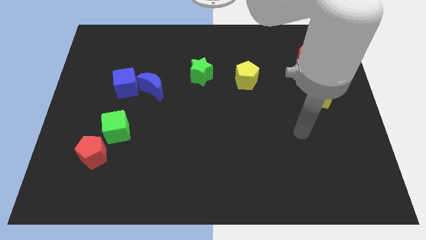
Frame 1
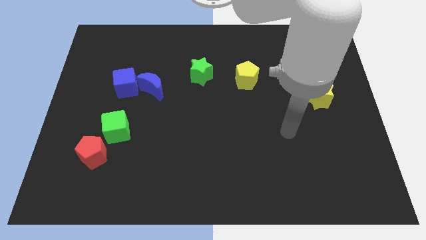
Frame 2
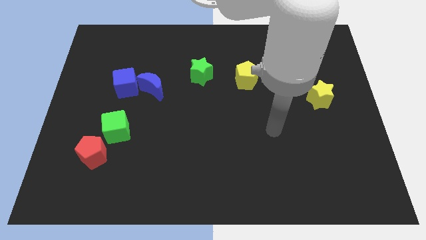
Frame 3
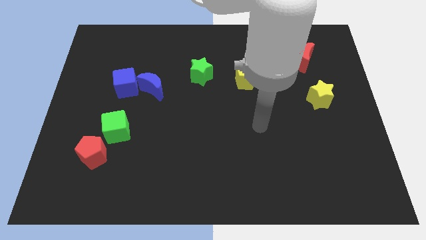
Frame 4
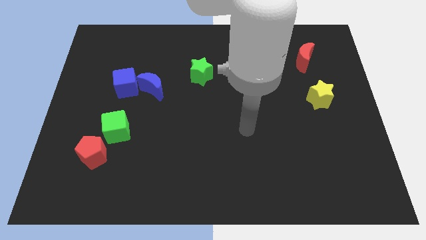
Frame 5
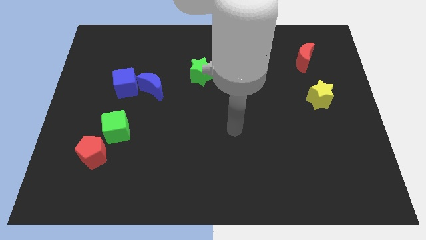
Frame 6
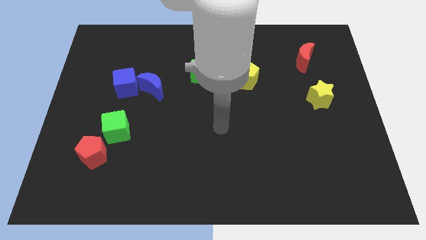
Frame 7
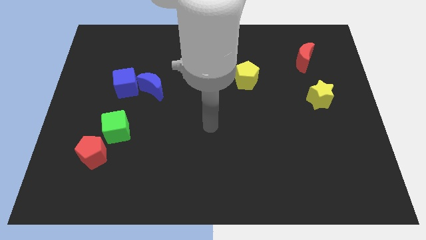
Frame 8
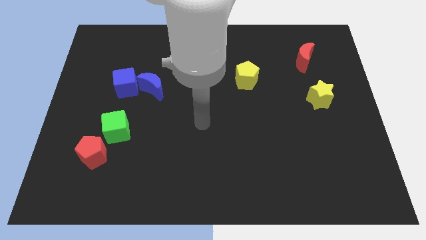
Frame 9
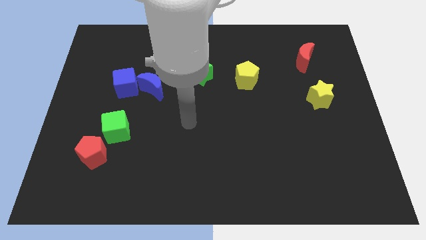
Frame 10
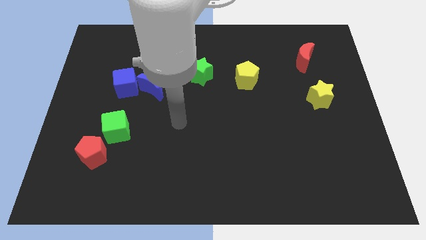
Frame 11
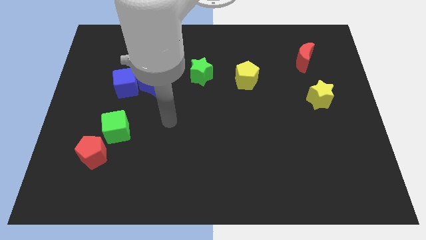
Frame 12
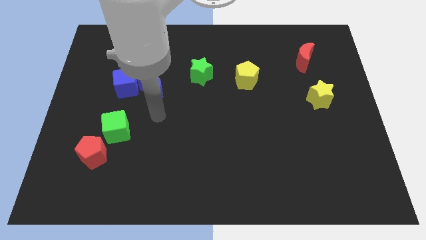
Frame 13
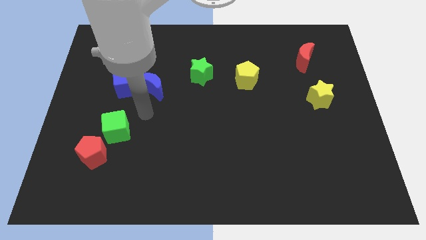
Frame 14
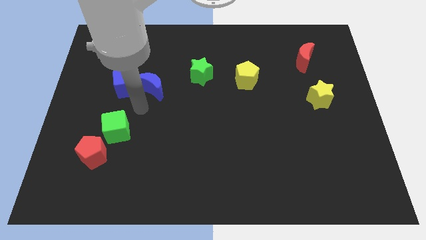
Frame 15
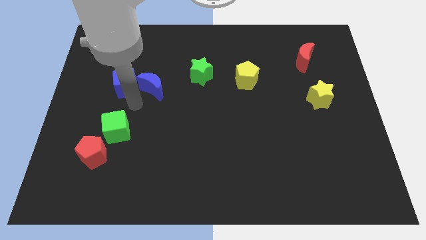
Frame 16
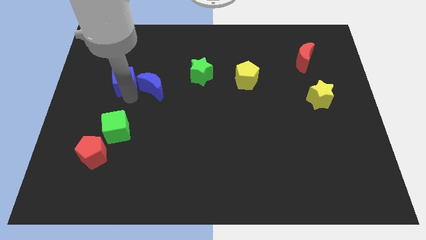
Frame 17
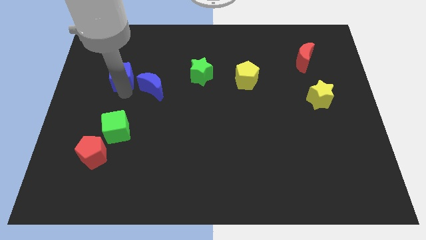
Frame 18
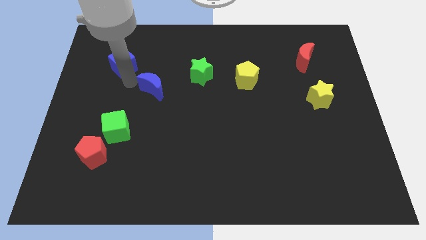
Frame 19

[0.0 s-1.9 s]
pull the blue moon apart from the blue cube

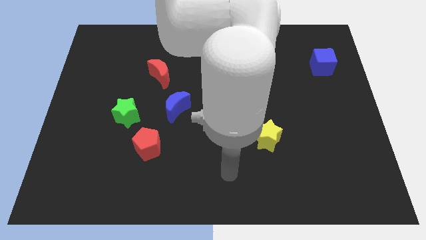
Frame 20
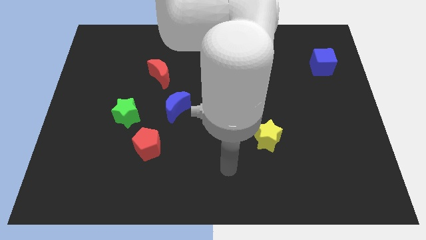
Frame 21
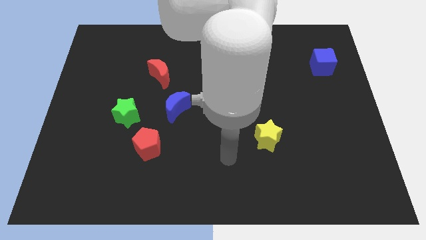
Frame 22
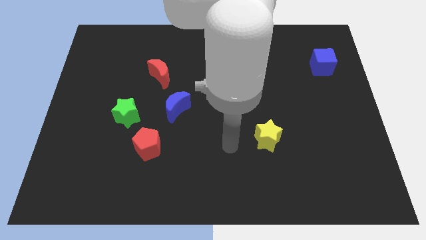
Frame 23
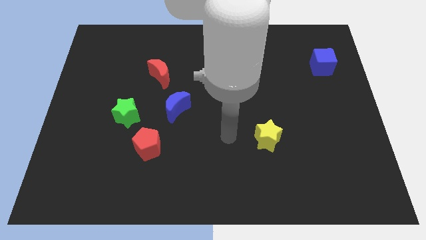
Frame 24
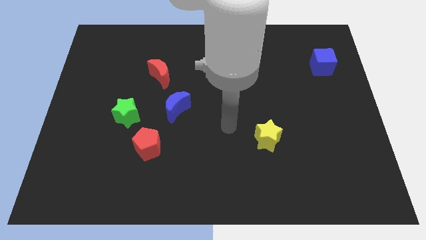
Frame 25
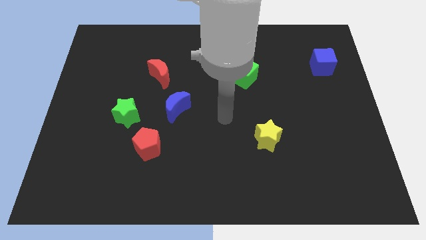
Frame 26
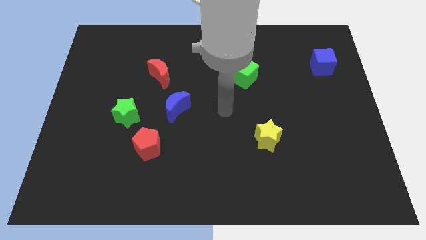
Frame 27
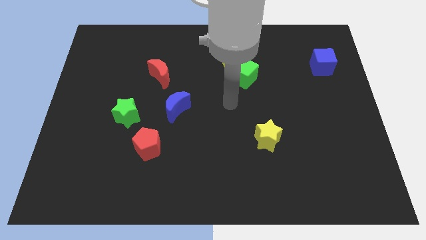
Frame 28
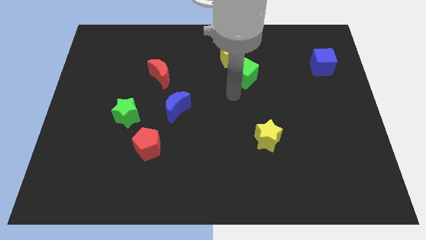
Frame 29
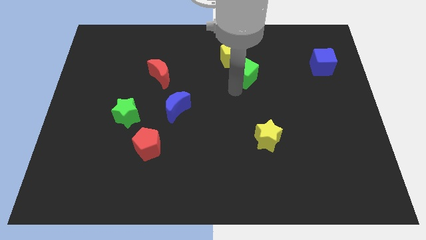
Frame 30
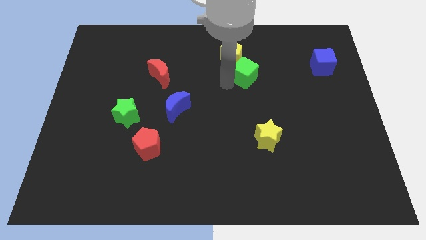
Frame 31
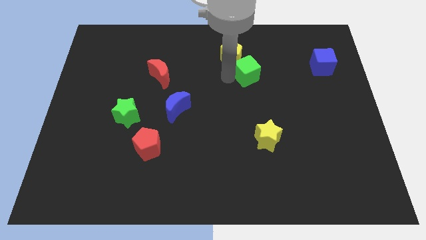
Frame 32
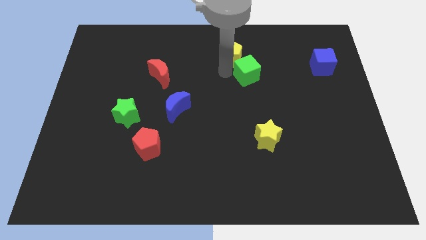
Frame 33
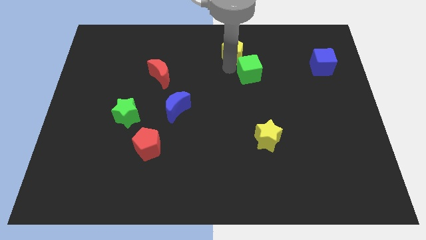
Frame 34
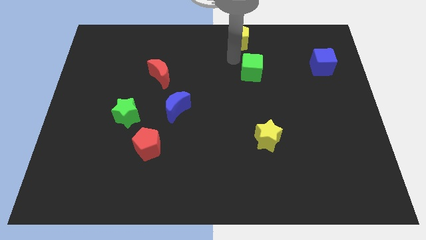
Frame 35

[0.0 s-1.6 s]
move the green cube away from the yellow pentagon

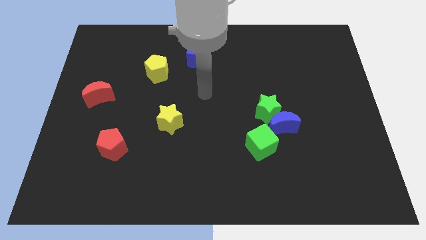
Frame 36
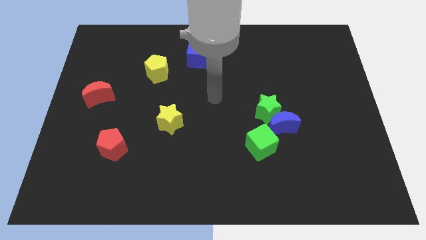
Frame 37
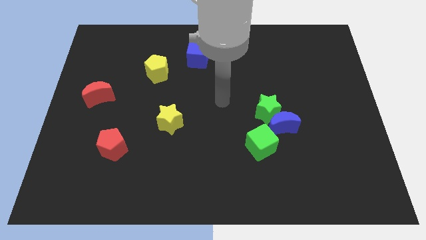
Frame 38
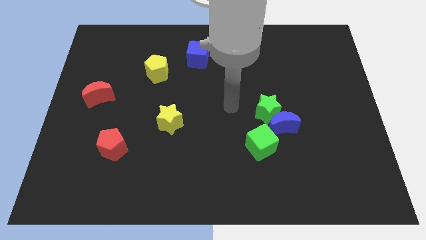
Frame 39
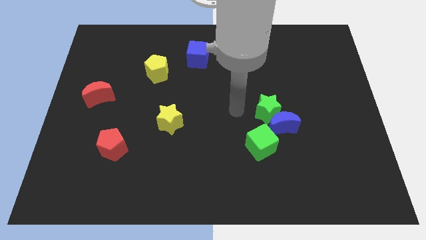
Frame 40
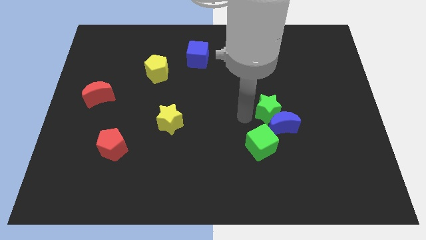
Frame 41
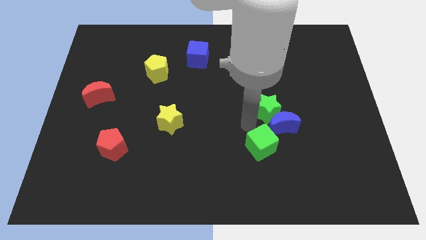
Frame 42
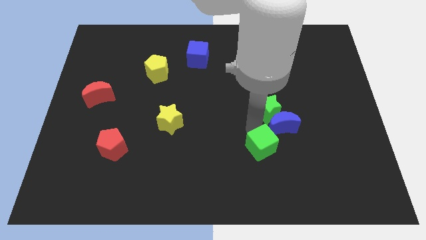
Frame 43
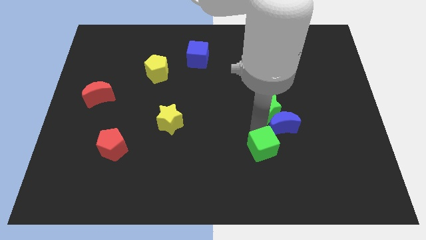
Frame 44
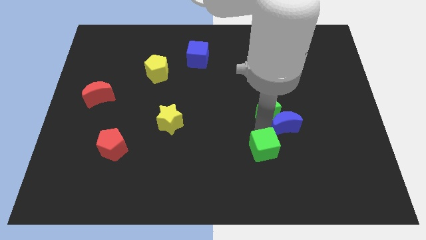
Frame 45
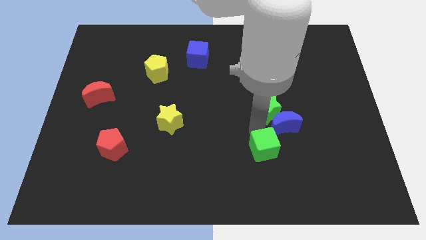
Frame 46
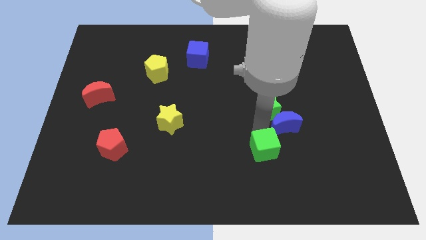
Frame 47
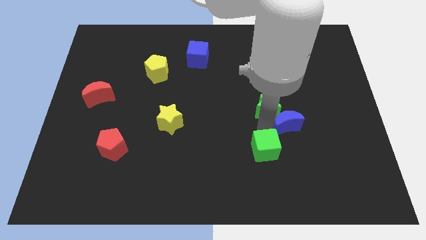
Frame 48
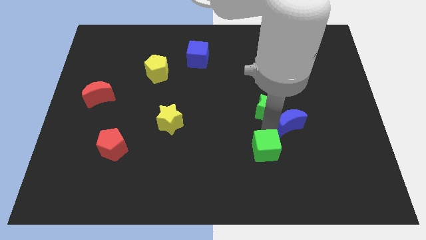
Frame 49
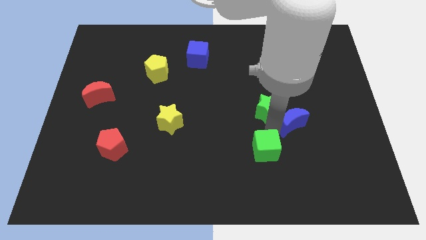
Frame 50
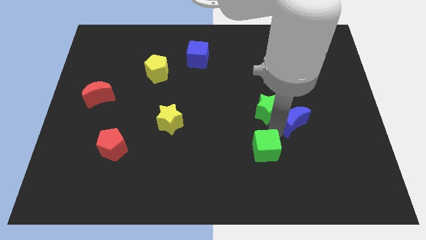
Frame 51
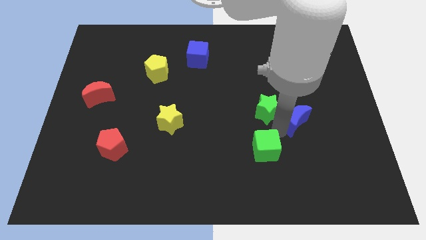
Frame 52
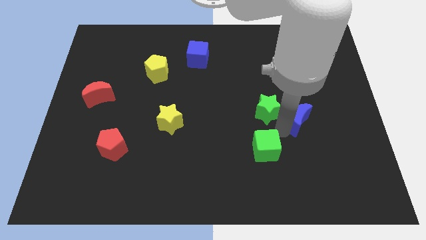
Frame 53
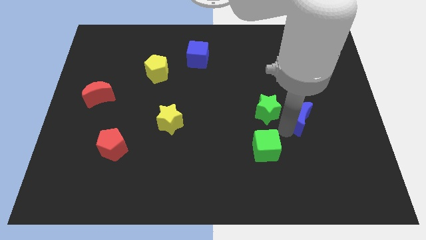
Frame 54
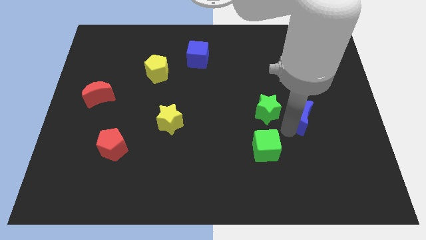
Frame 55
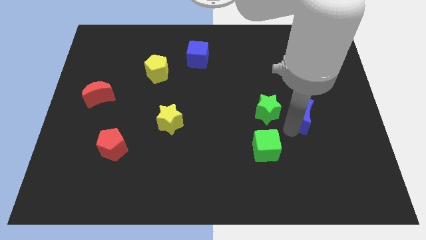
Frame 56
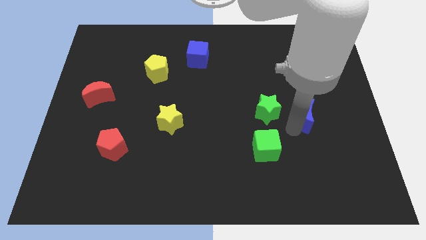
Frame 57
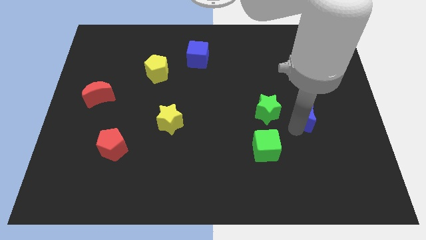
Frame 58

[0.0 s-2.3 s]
move the blue moon away from the green star and green cube

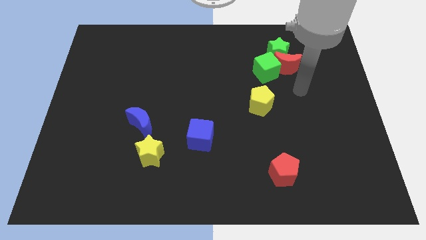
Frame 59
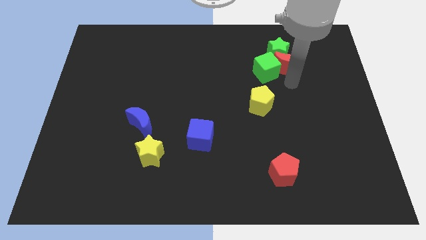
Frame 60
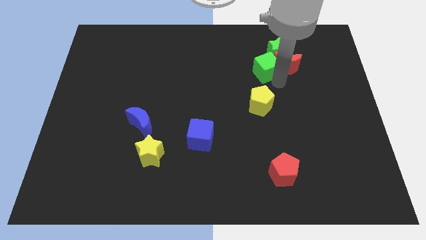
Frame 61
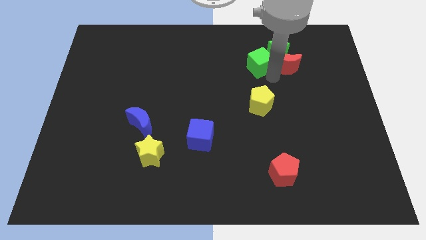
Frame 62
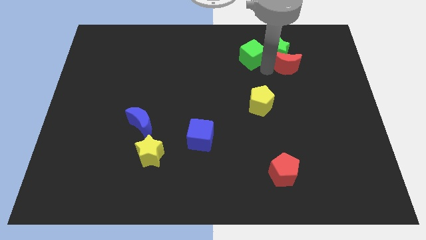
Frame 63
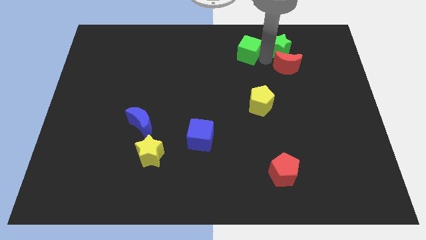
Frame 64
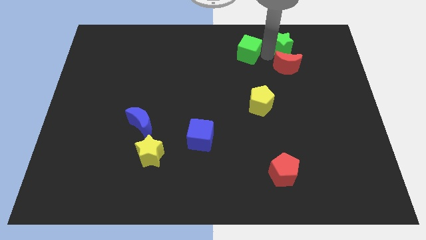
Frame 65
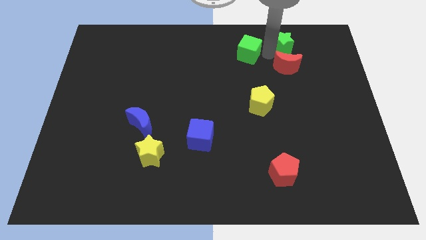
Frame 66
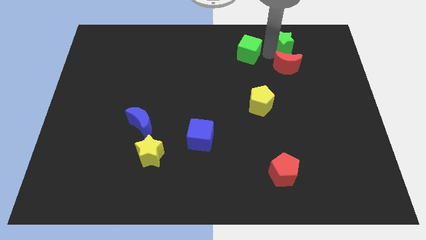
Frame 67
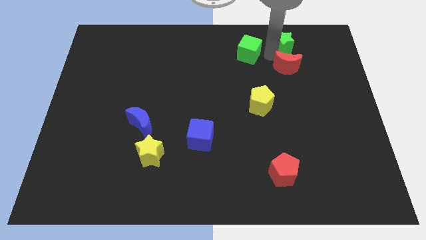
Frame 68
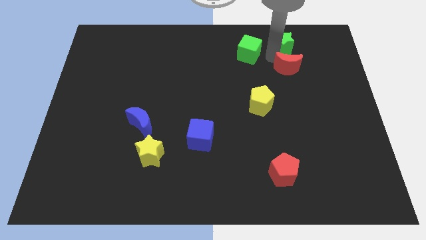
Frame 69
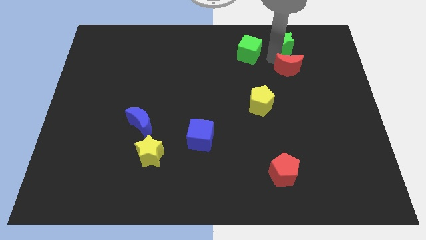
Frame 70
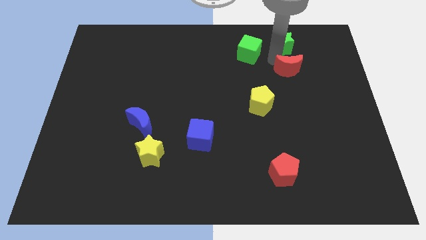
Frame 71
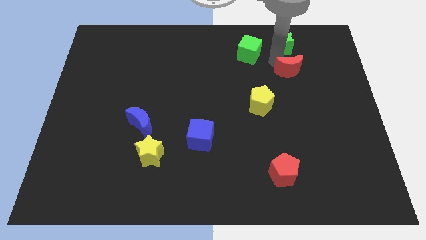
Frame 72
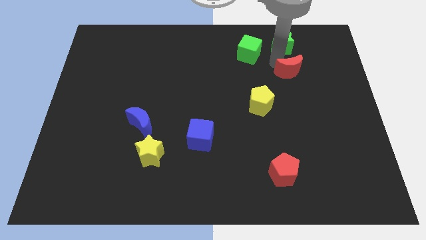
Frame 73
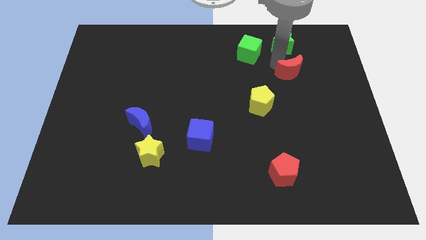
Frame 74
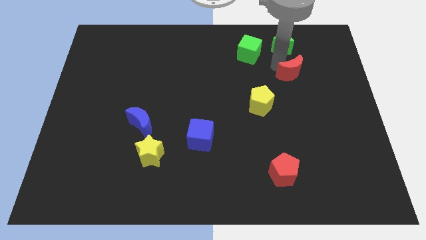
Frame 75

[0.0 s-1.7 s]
move the red moon away from the green star and green cube

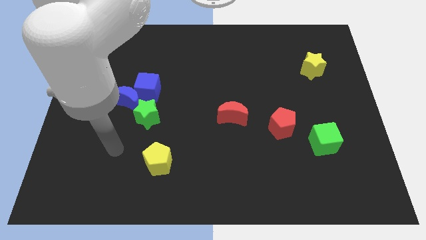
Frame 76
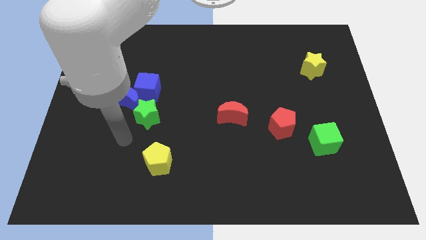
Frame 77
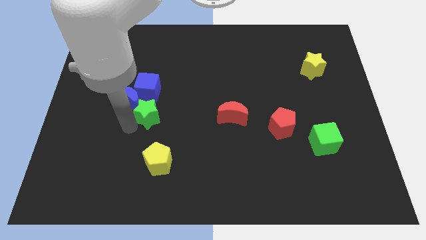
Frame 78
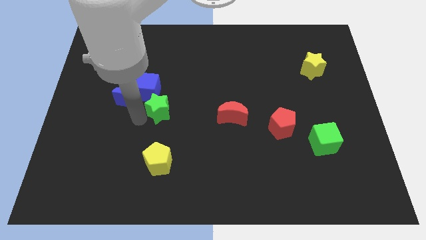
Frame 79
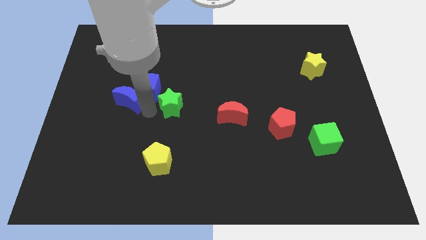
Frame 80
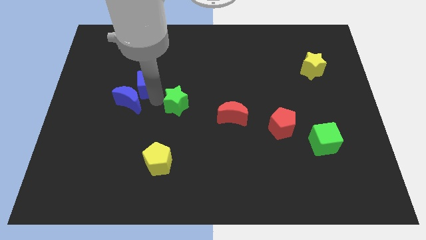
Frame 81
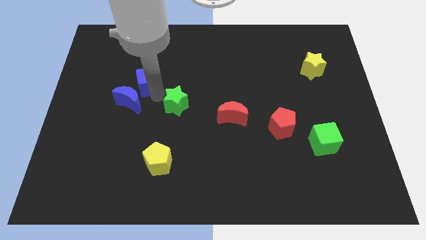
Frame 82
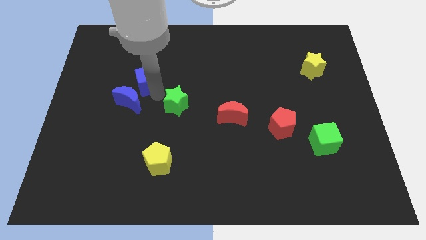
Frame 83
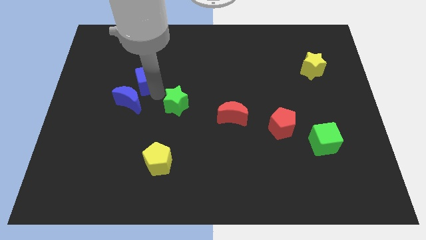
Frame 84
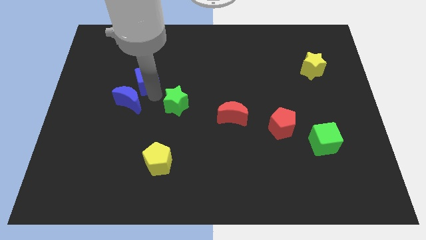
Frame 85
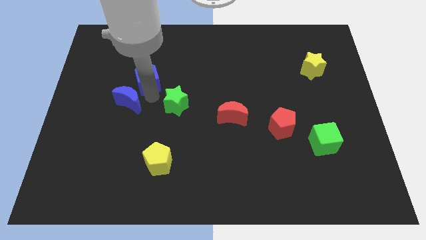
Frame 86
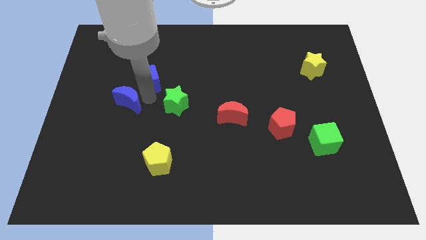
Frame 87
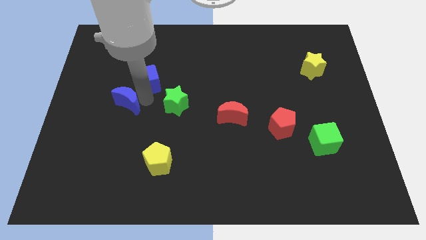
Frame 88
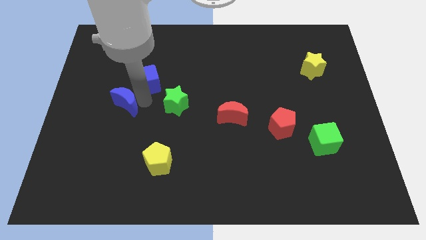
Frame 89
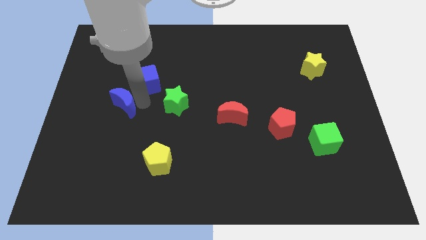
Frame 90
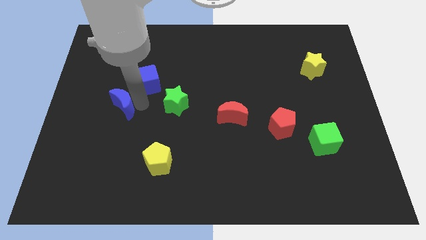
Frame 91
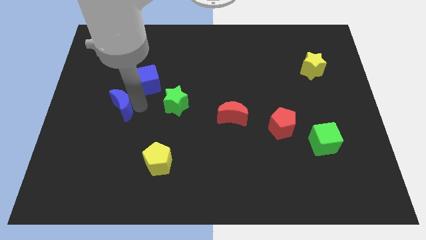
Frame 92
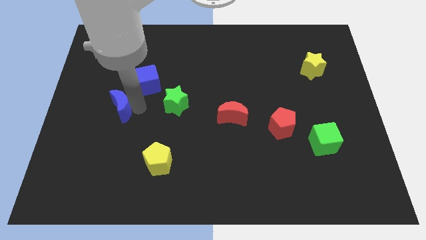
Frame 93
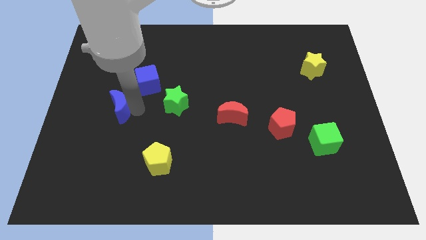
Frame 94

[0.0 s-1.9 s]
move the blue moon away from the blue cube and green star

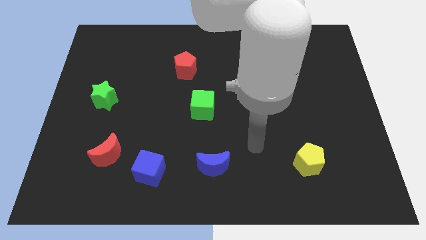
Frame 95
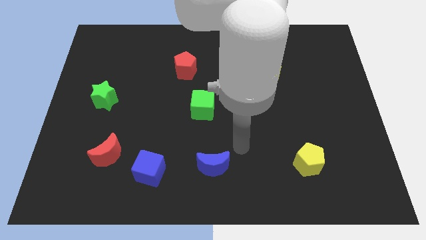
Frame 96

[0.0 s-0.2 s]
separate the red moon from the blue cube
